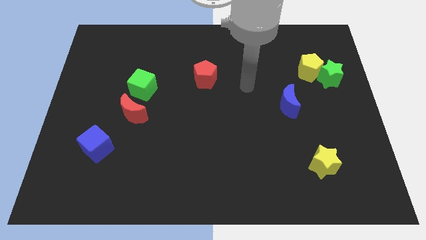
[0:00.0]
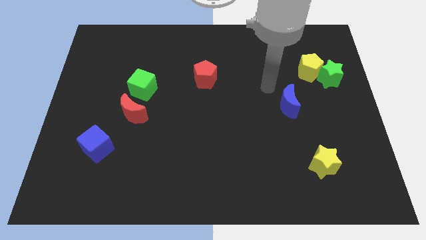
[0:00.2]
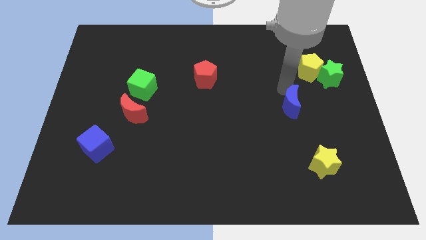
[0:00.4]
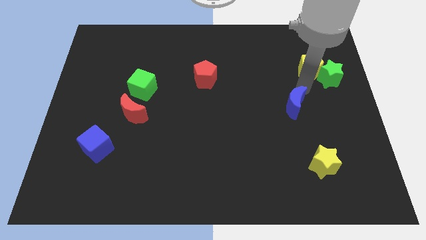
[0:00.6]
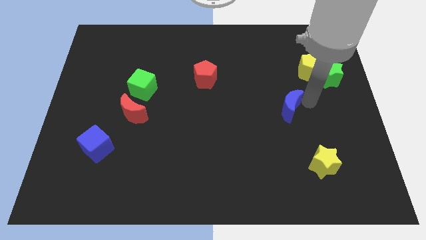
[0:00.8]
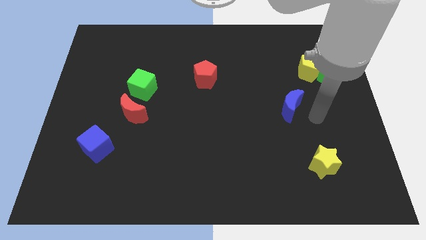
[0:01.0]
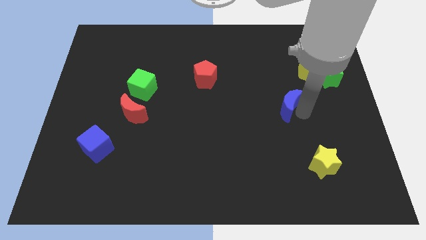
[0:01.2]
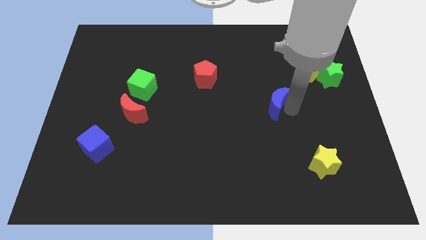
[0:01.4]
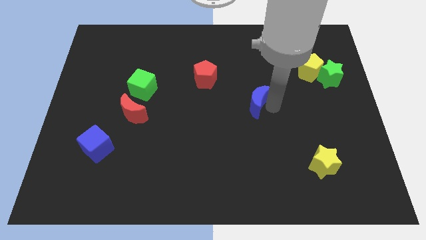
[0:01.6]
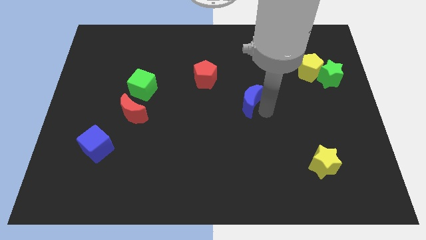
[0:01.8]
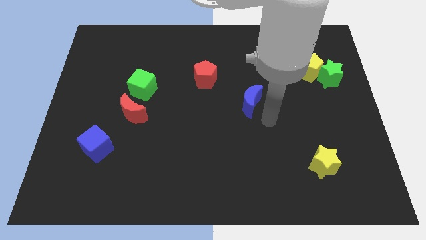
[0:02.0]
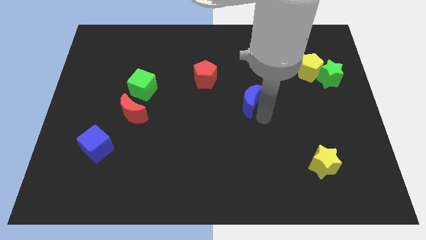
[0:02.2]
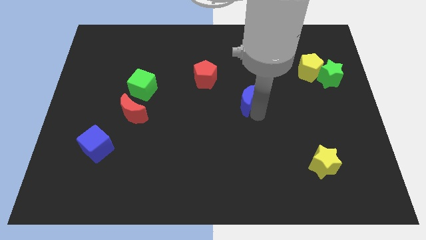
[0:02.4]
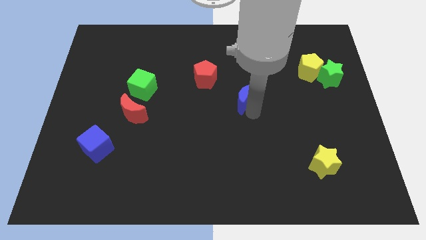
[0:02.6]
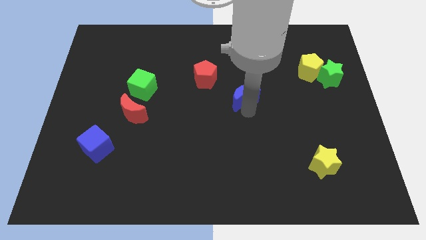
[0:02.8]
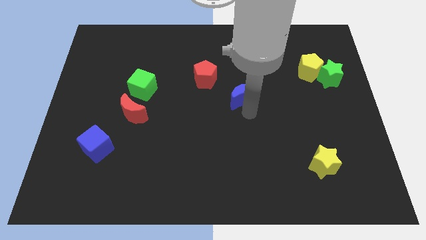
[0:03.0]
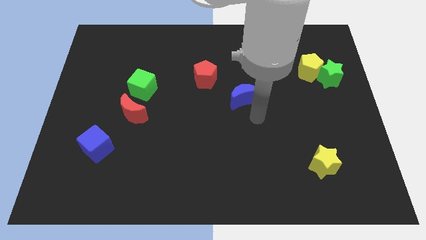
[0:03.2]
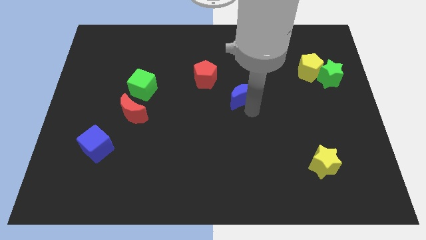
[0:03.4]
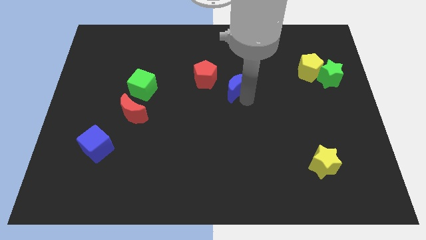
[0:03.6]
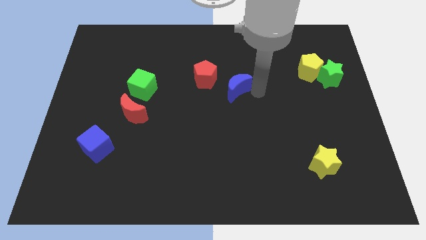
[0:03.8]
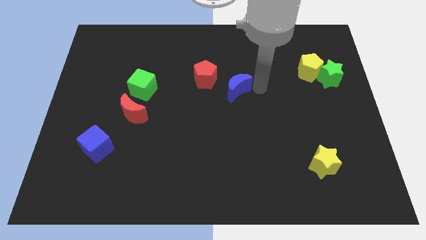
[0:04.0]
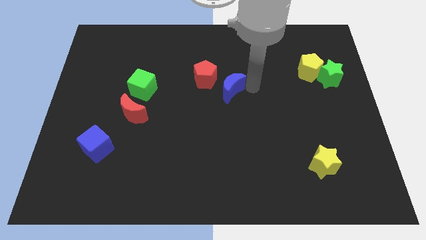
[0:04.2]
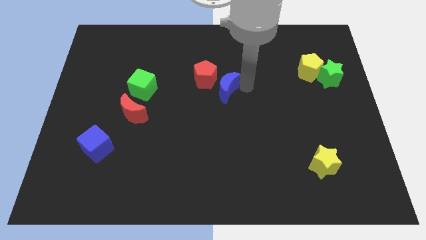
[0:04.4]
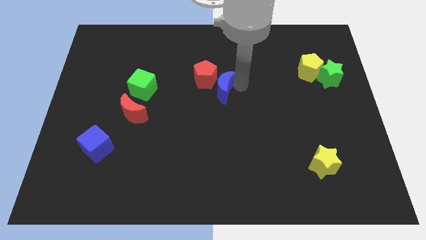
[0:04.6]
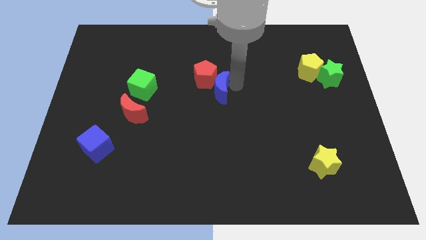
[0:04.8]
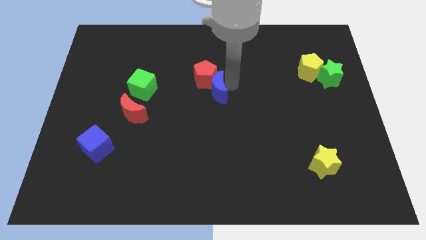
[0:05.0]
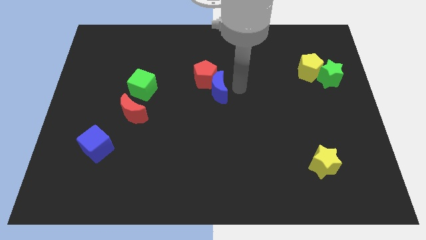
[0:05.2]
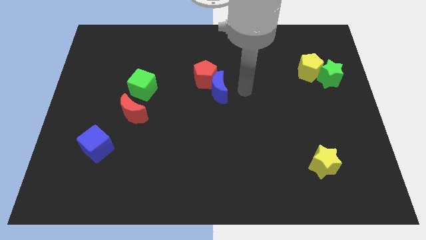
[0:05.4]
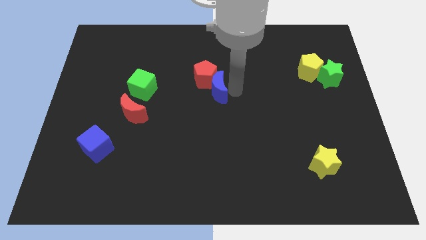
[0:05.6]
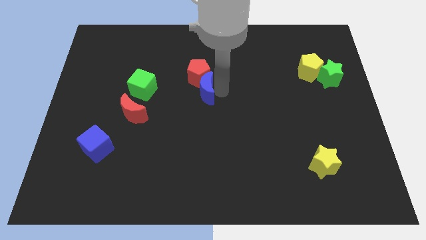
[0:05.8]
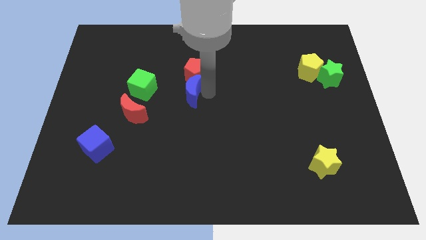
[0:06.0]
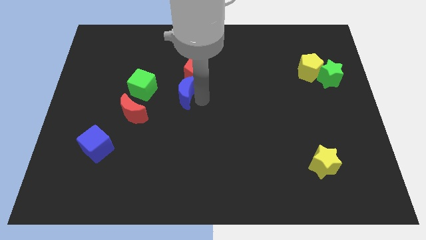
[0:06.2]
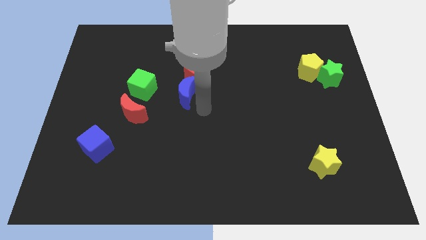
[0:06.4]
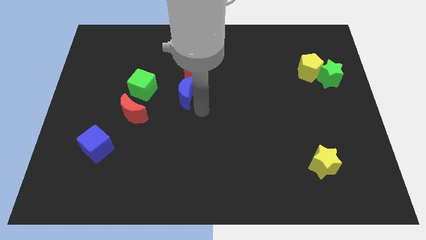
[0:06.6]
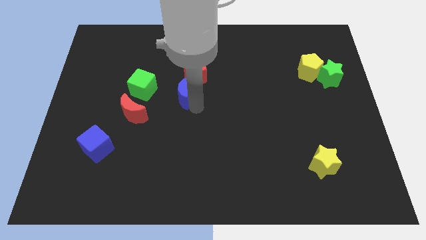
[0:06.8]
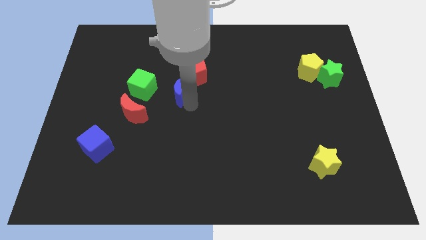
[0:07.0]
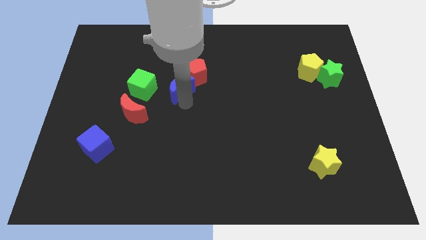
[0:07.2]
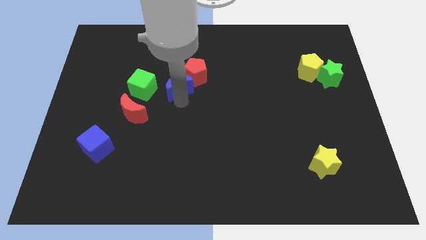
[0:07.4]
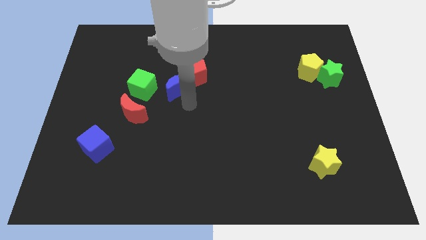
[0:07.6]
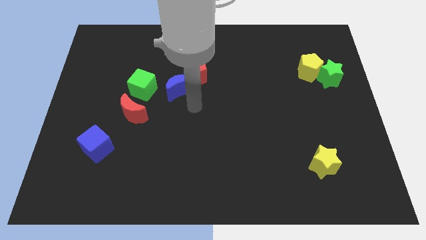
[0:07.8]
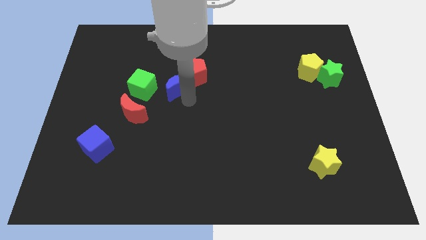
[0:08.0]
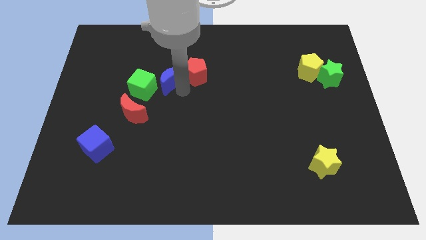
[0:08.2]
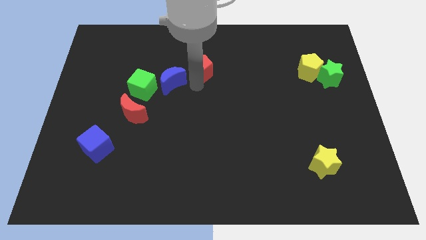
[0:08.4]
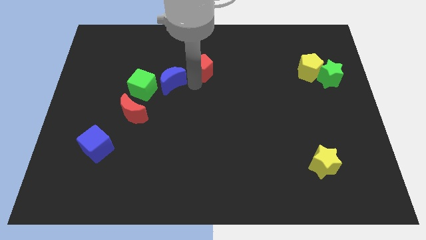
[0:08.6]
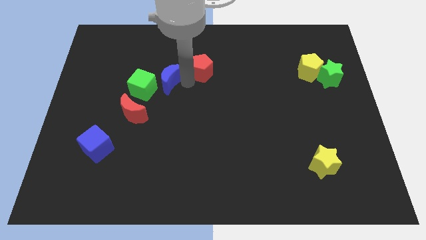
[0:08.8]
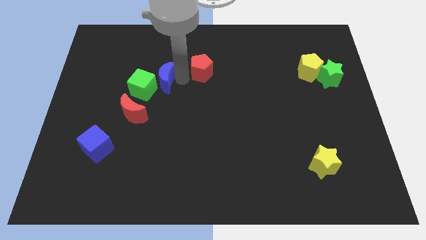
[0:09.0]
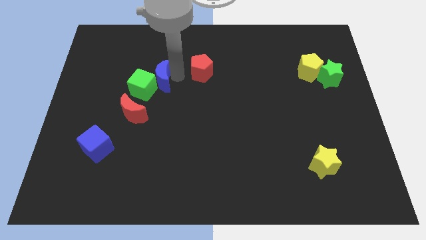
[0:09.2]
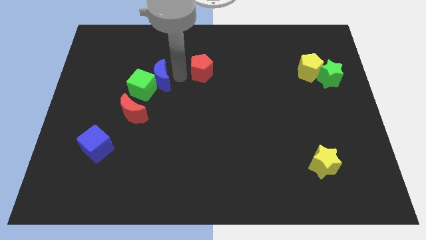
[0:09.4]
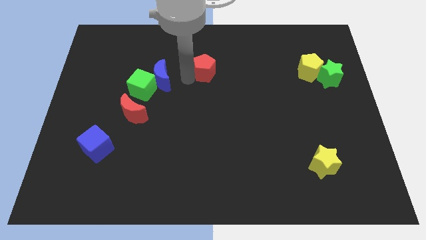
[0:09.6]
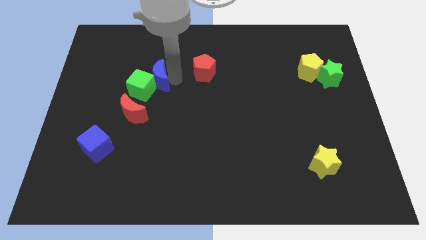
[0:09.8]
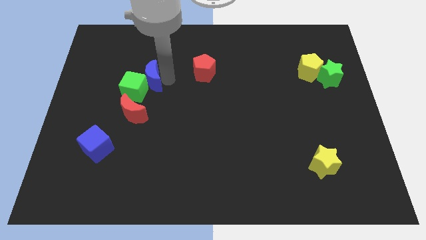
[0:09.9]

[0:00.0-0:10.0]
push the blue moon to the top side of the red moon

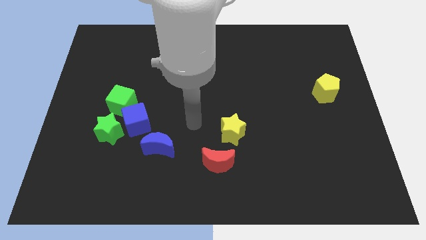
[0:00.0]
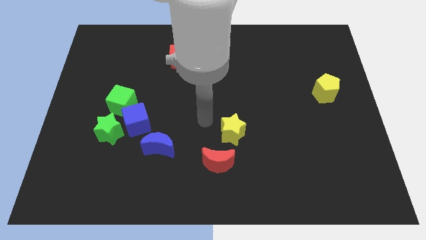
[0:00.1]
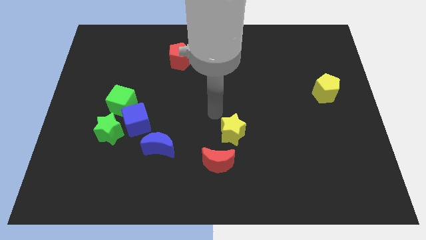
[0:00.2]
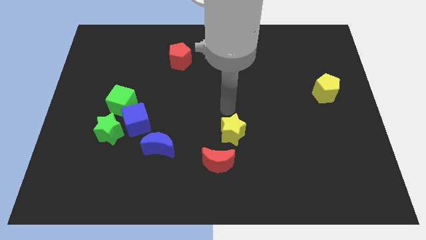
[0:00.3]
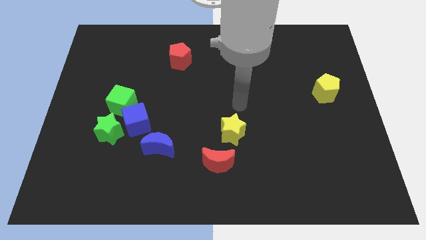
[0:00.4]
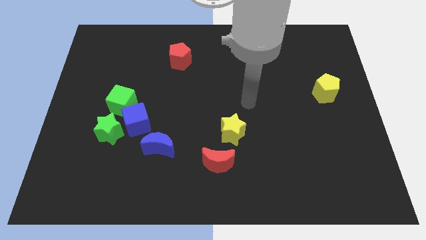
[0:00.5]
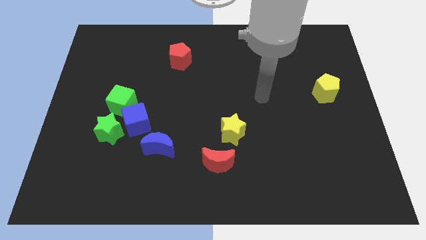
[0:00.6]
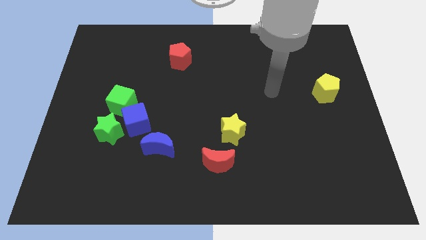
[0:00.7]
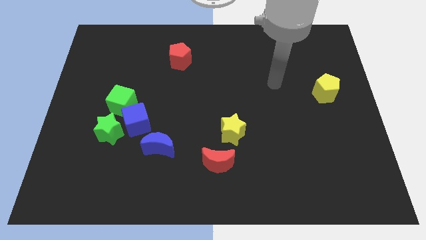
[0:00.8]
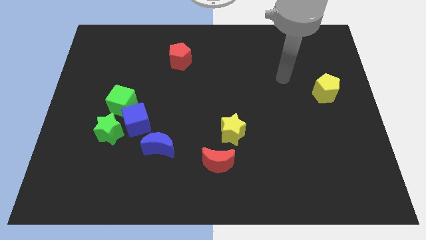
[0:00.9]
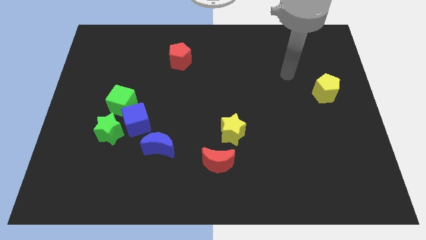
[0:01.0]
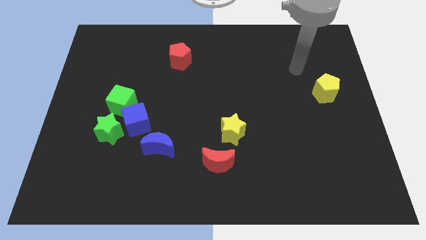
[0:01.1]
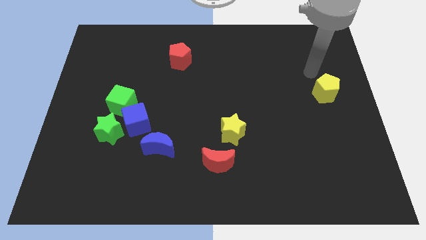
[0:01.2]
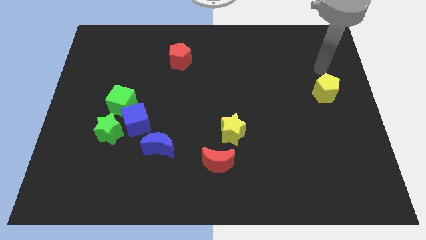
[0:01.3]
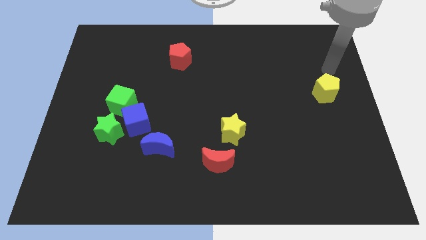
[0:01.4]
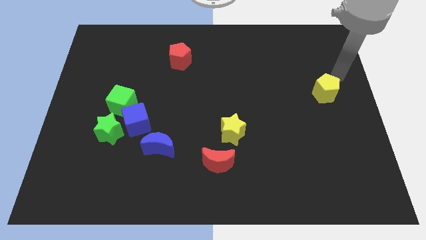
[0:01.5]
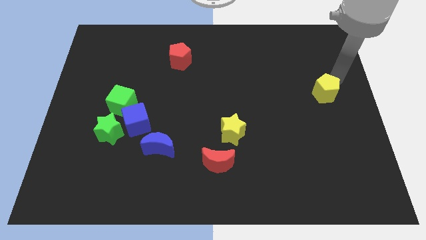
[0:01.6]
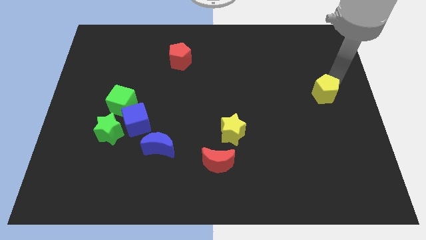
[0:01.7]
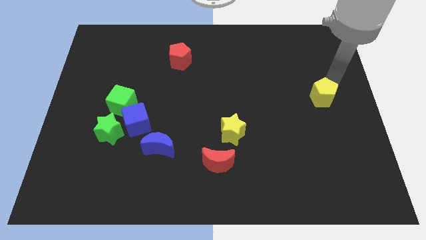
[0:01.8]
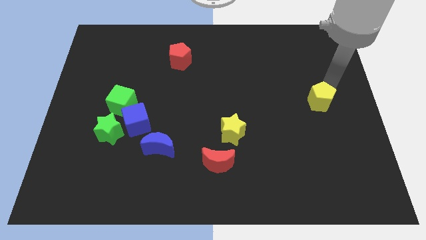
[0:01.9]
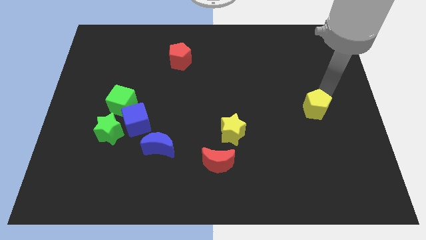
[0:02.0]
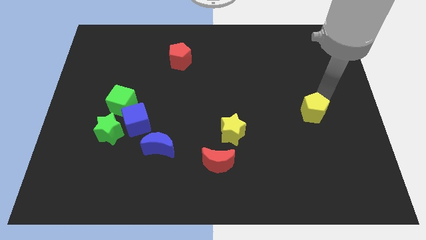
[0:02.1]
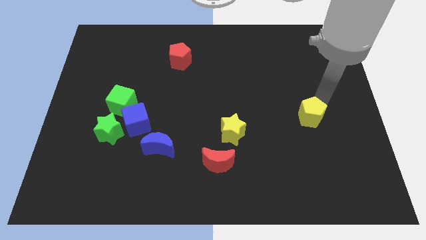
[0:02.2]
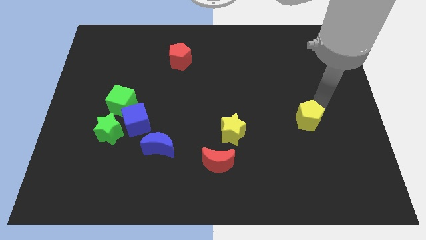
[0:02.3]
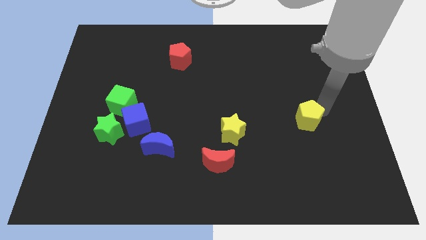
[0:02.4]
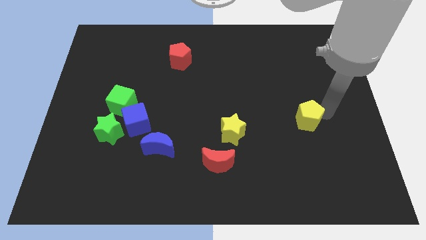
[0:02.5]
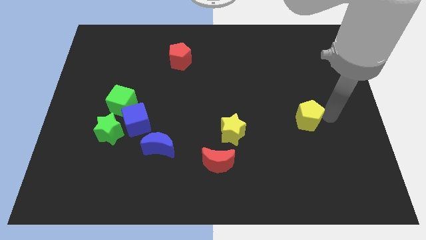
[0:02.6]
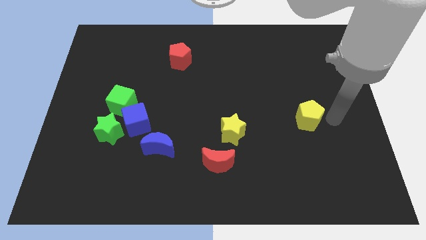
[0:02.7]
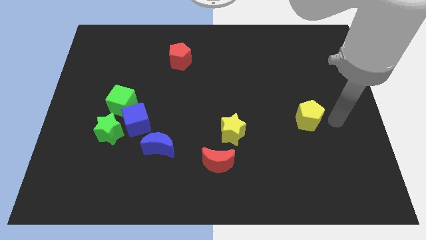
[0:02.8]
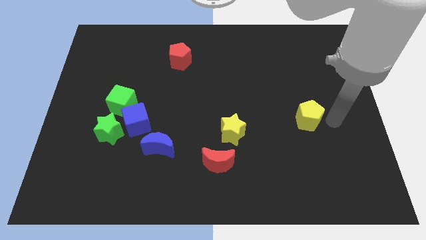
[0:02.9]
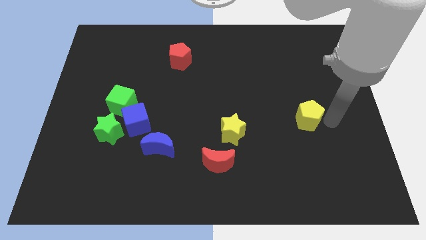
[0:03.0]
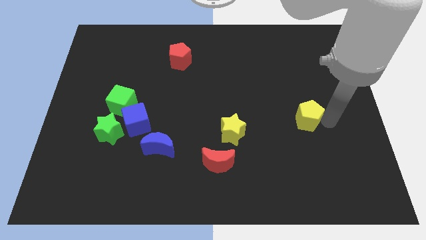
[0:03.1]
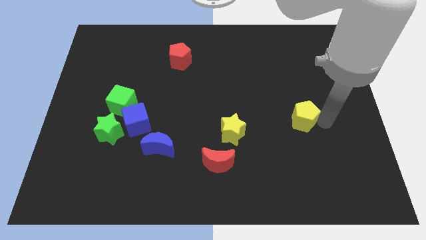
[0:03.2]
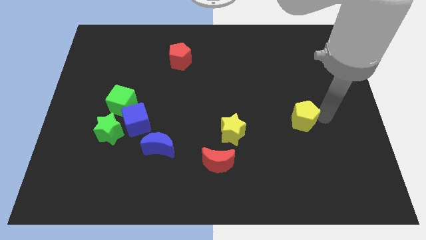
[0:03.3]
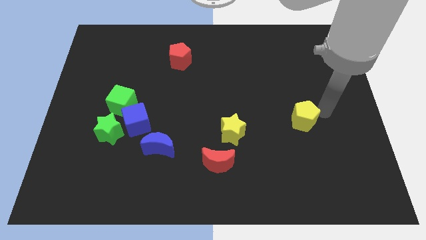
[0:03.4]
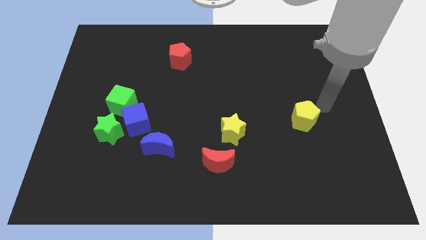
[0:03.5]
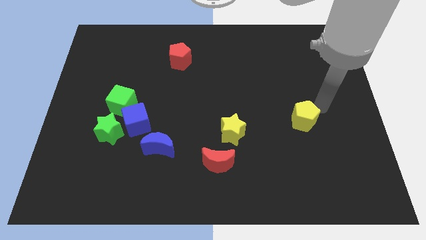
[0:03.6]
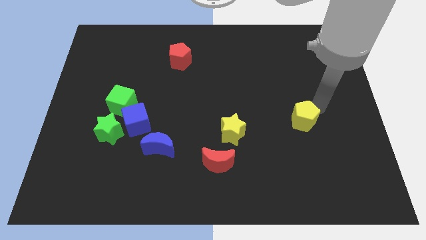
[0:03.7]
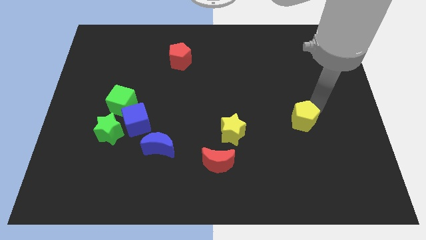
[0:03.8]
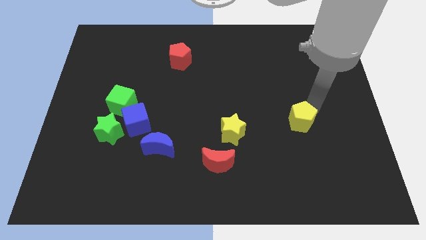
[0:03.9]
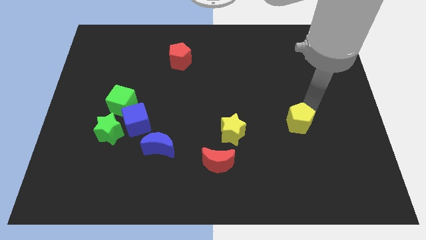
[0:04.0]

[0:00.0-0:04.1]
put the yellow pentagon to the right side of the yellow star
